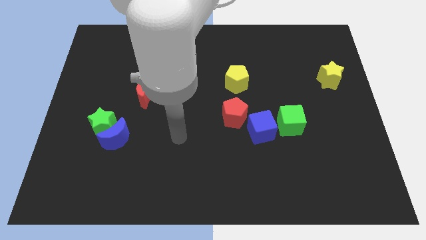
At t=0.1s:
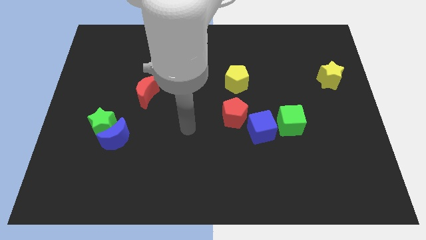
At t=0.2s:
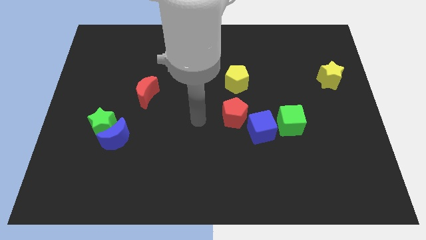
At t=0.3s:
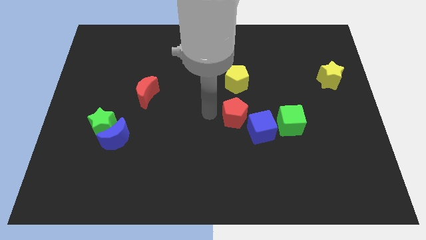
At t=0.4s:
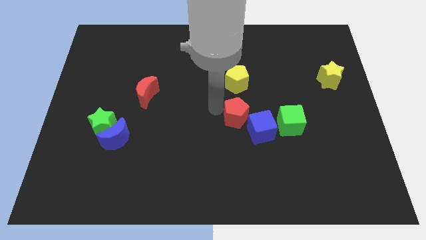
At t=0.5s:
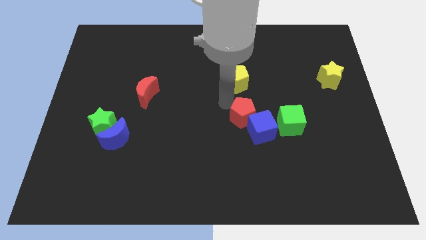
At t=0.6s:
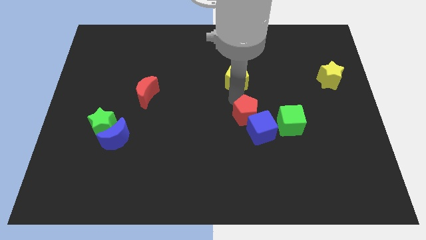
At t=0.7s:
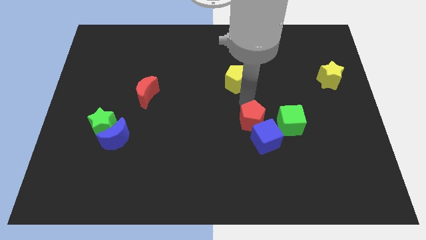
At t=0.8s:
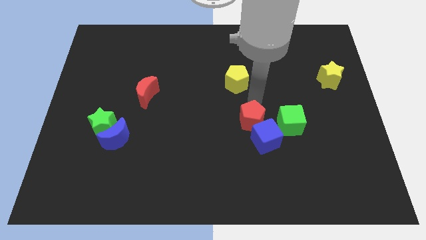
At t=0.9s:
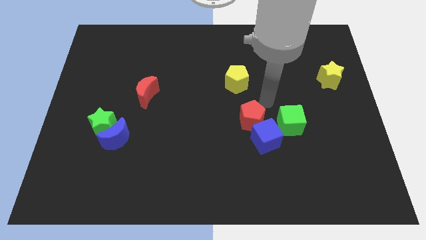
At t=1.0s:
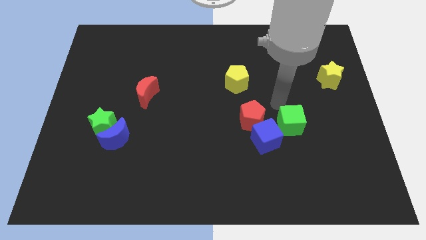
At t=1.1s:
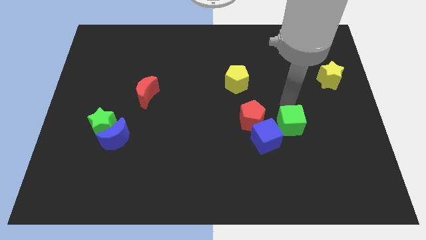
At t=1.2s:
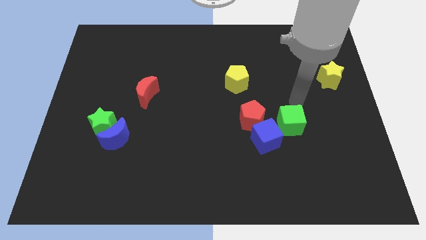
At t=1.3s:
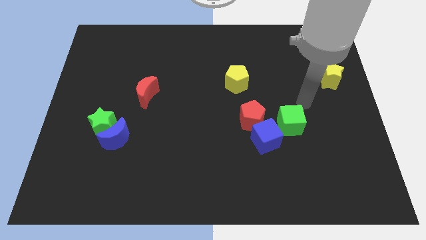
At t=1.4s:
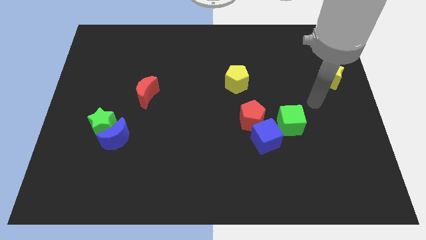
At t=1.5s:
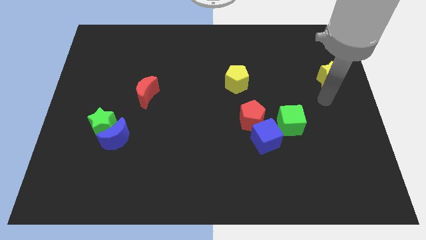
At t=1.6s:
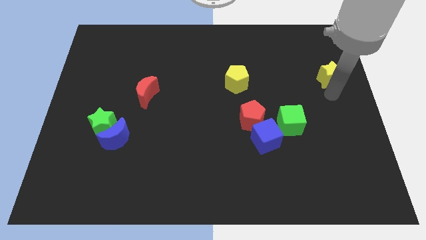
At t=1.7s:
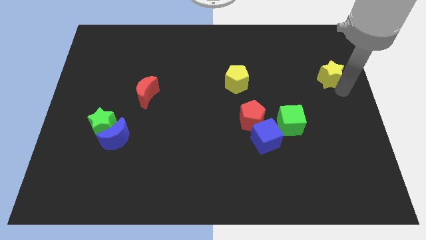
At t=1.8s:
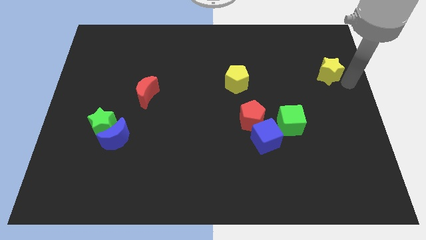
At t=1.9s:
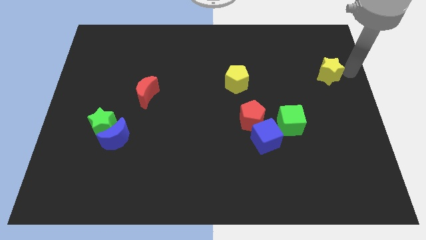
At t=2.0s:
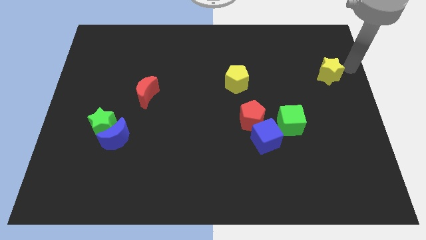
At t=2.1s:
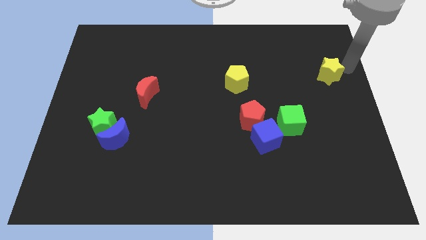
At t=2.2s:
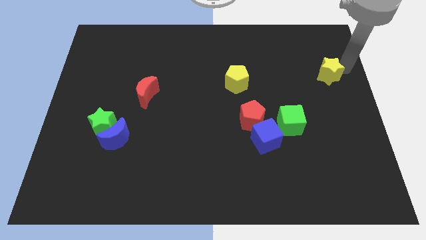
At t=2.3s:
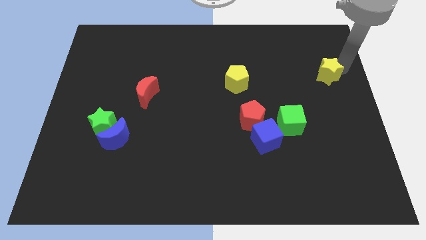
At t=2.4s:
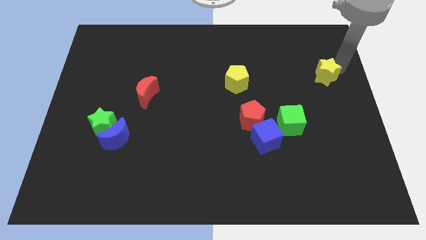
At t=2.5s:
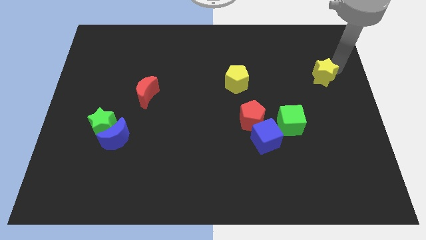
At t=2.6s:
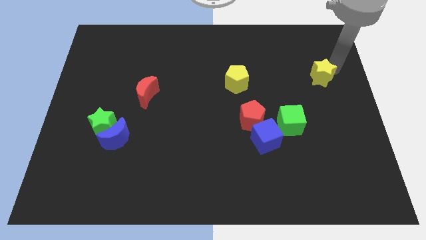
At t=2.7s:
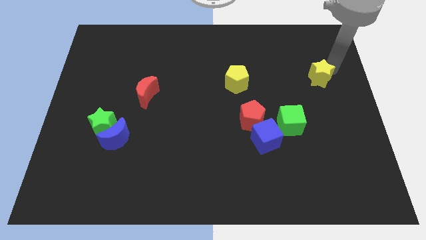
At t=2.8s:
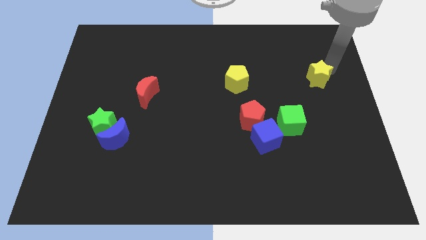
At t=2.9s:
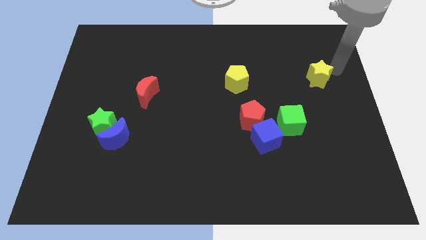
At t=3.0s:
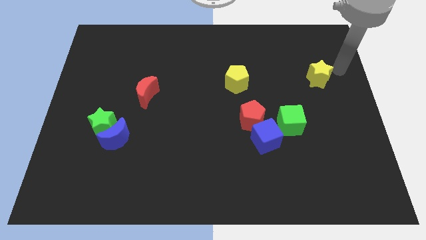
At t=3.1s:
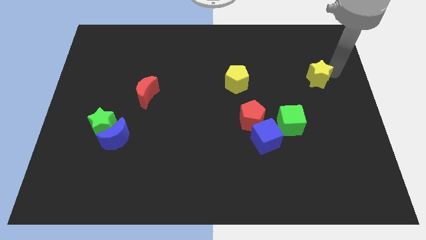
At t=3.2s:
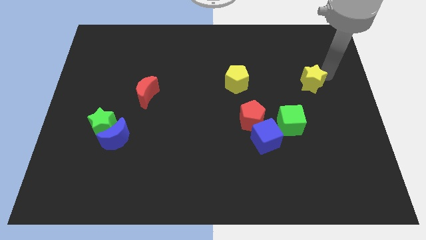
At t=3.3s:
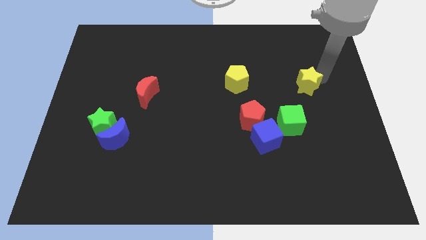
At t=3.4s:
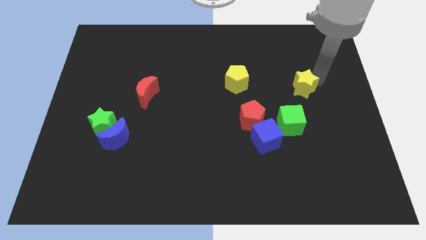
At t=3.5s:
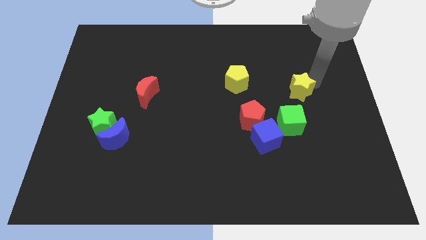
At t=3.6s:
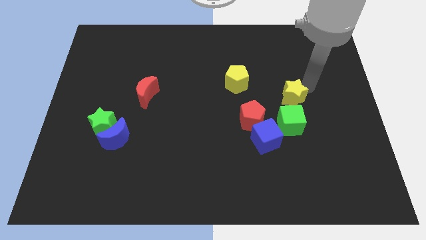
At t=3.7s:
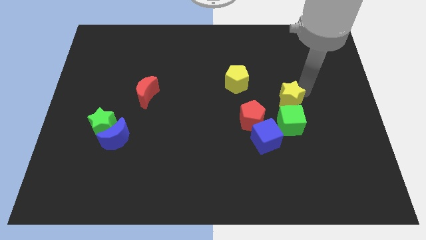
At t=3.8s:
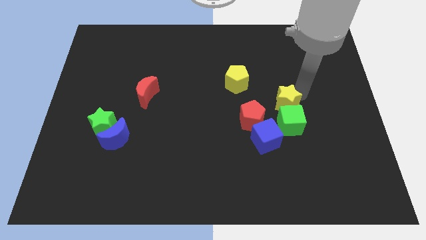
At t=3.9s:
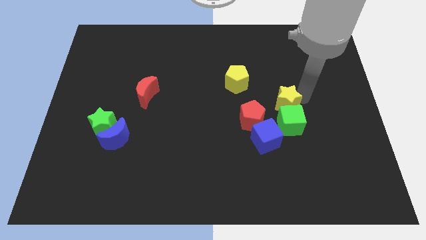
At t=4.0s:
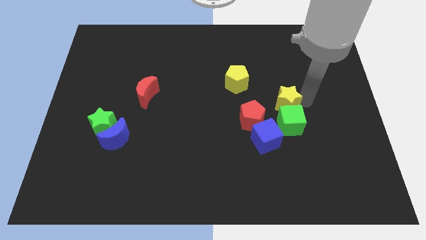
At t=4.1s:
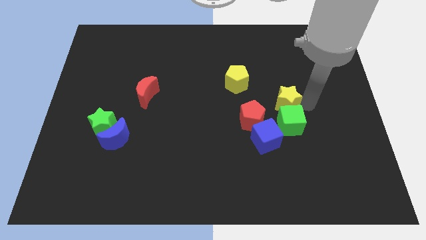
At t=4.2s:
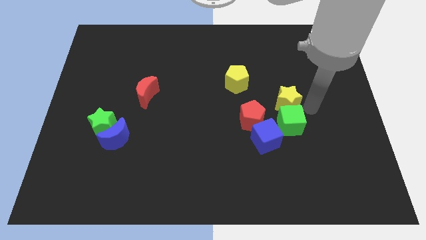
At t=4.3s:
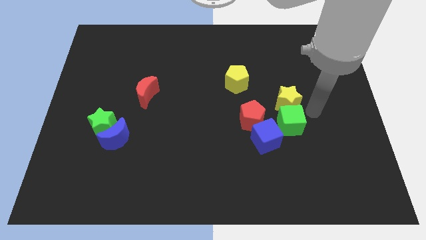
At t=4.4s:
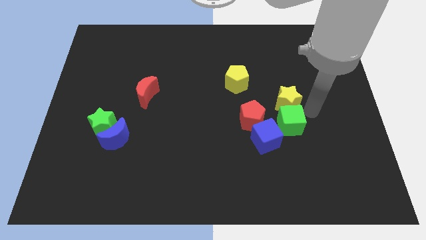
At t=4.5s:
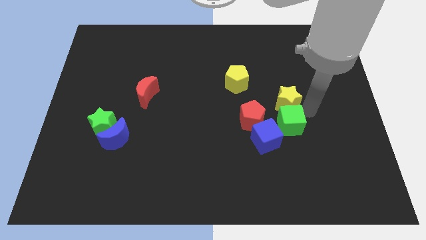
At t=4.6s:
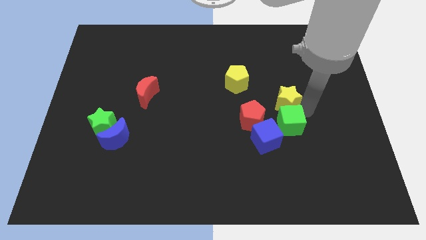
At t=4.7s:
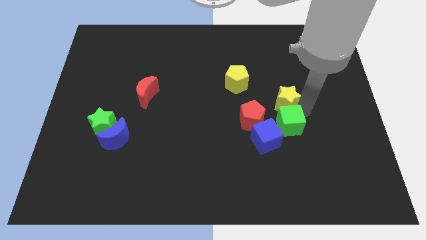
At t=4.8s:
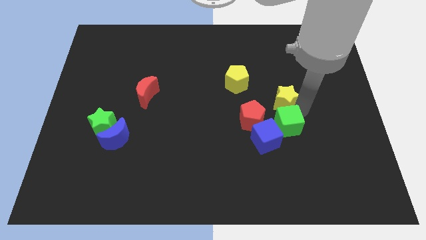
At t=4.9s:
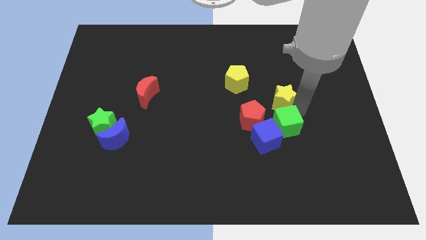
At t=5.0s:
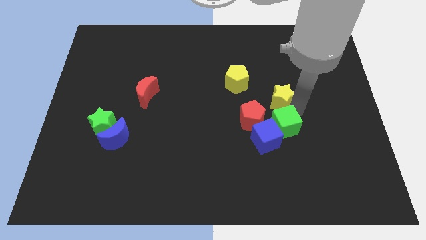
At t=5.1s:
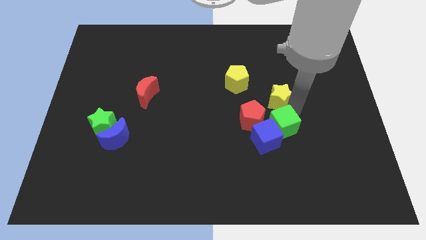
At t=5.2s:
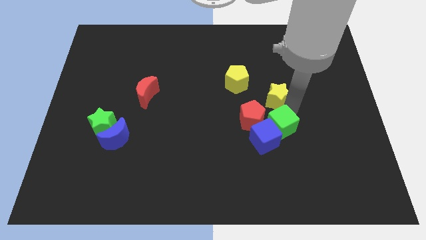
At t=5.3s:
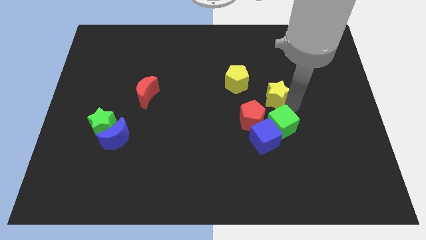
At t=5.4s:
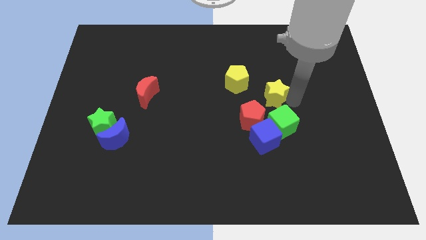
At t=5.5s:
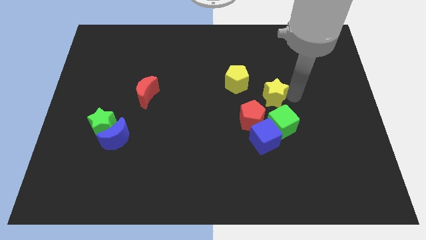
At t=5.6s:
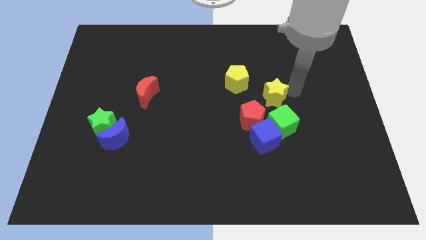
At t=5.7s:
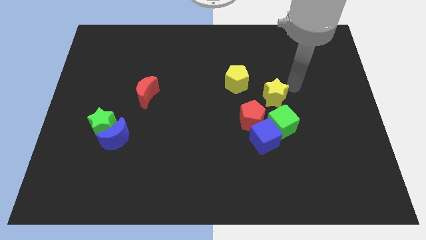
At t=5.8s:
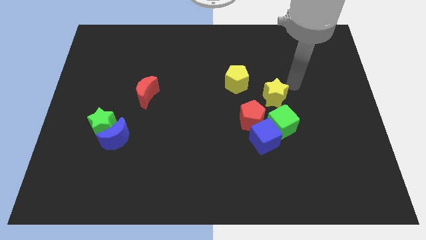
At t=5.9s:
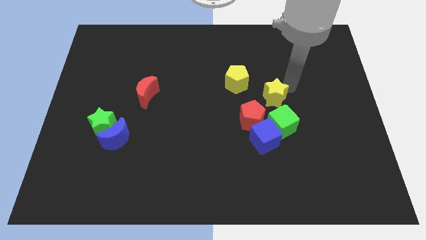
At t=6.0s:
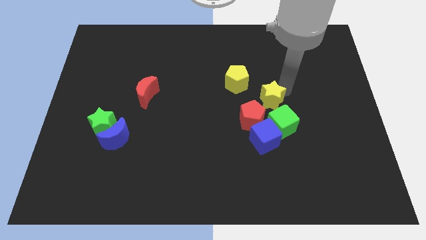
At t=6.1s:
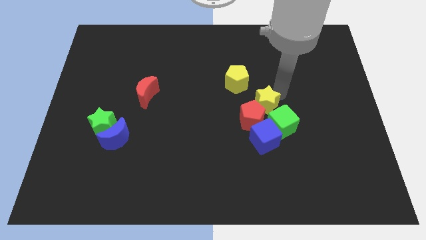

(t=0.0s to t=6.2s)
push the yellow star next to the red pentagon

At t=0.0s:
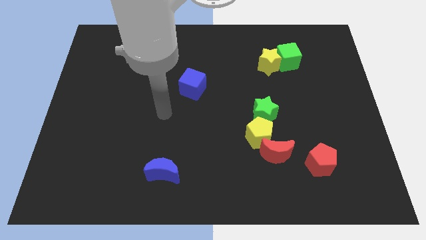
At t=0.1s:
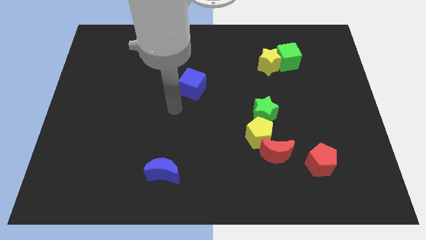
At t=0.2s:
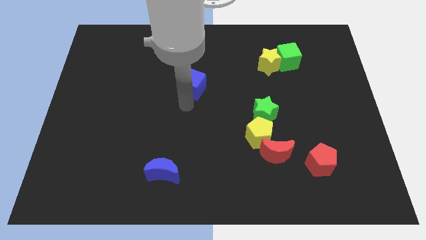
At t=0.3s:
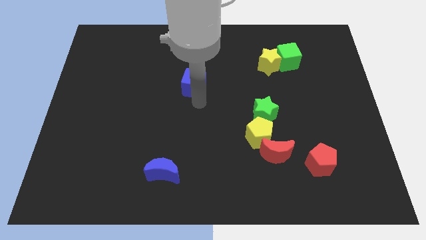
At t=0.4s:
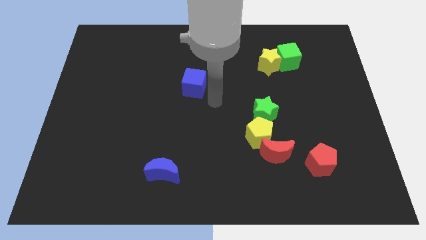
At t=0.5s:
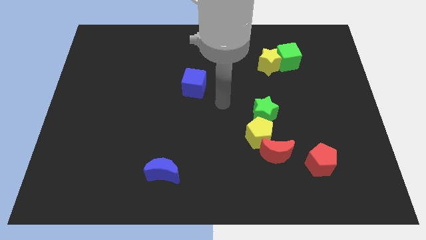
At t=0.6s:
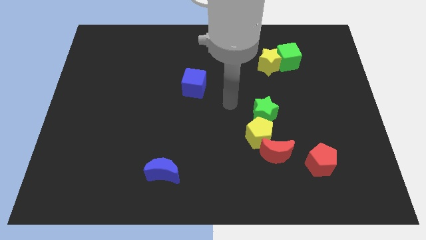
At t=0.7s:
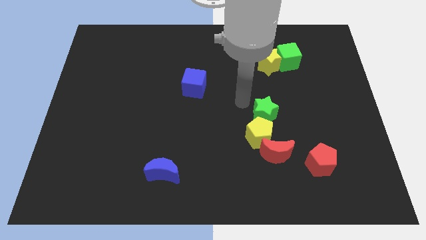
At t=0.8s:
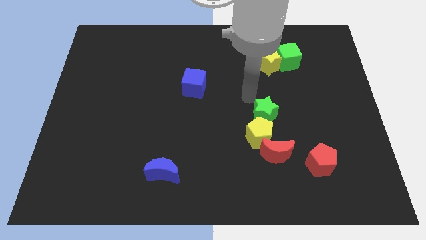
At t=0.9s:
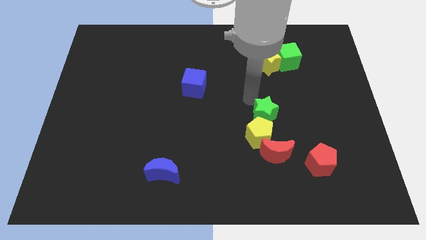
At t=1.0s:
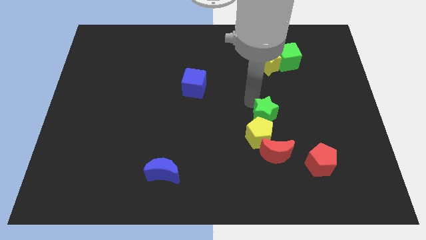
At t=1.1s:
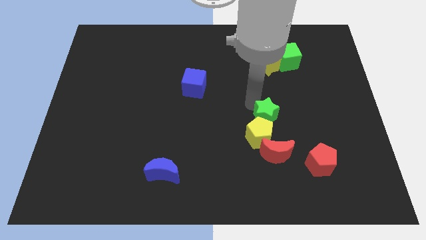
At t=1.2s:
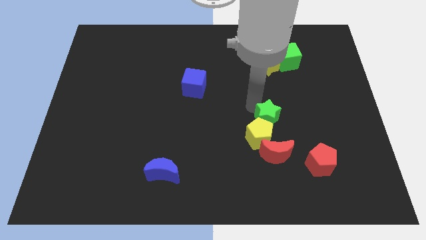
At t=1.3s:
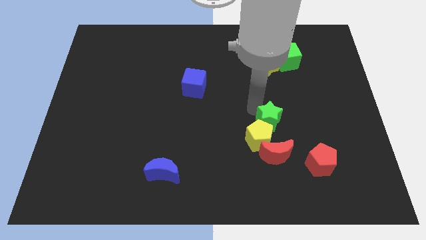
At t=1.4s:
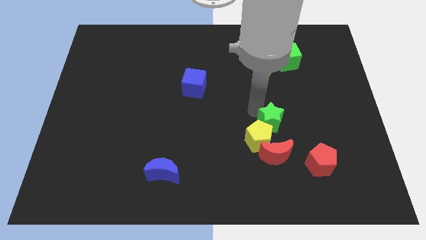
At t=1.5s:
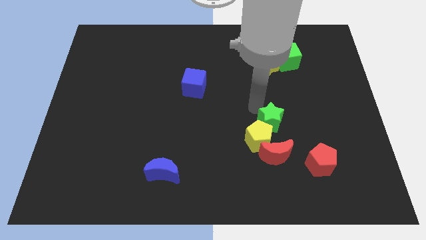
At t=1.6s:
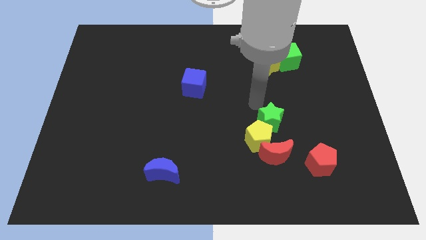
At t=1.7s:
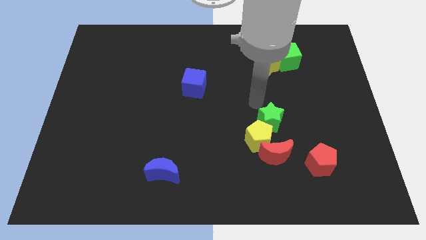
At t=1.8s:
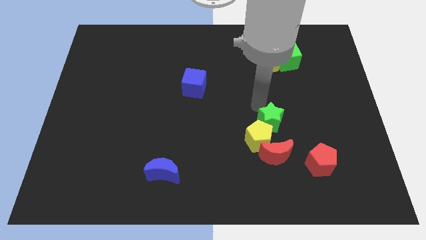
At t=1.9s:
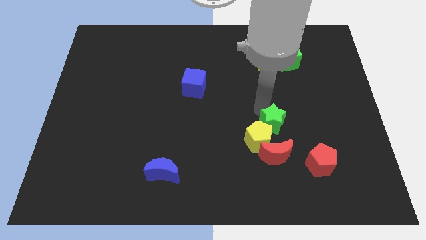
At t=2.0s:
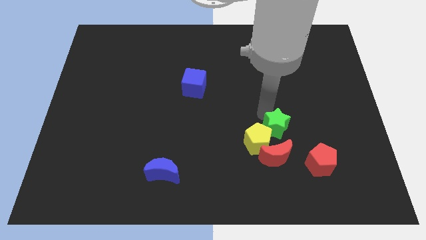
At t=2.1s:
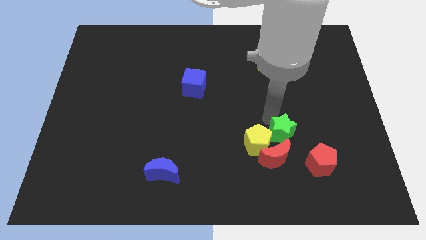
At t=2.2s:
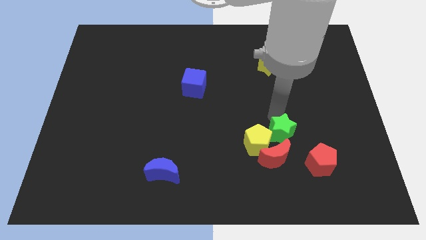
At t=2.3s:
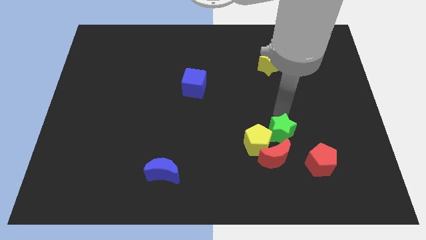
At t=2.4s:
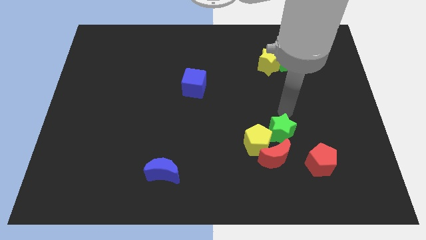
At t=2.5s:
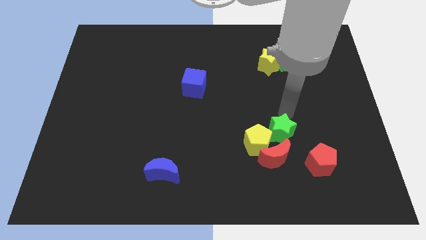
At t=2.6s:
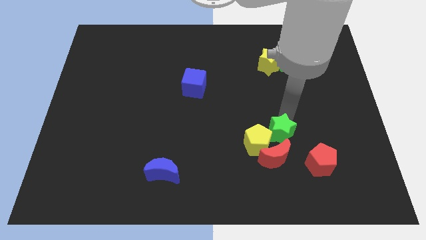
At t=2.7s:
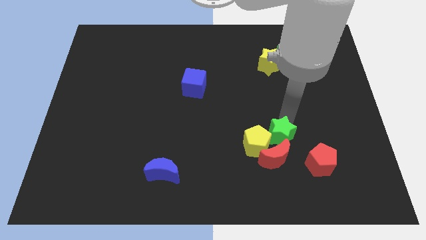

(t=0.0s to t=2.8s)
push the green star towards the red moon
